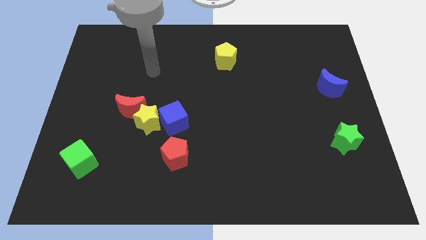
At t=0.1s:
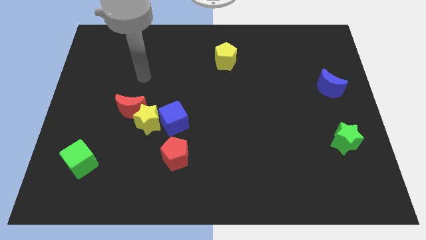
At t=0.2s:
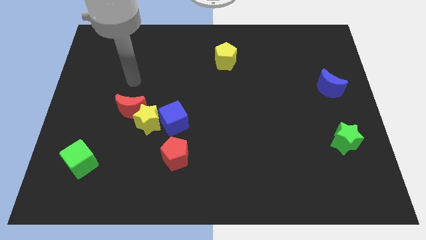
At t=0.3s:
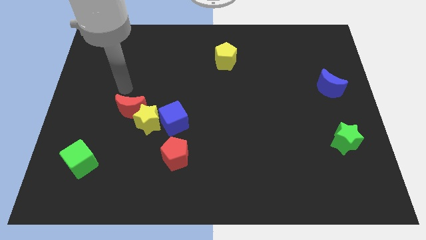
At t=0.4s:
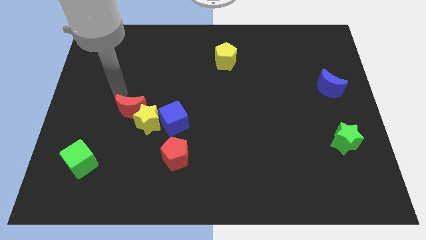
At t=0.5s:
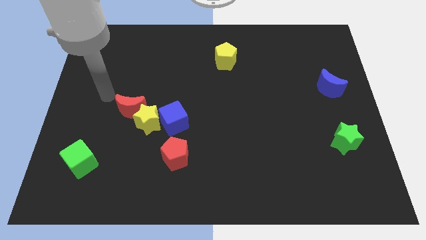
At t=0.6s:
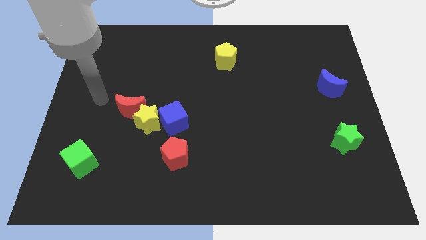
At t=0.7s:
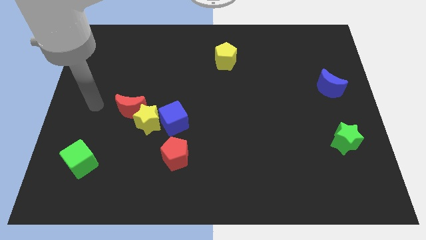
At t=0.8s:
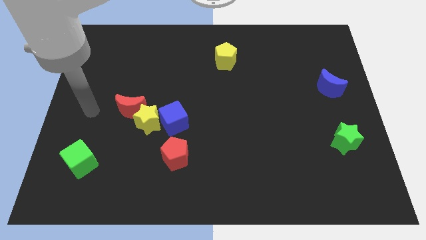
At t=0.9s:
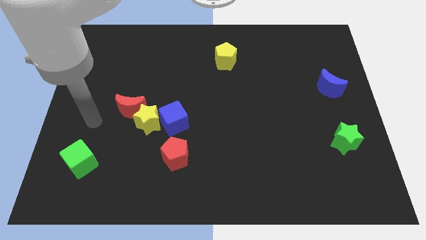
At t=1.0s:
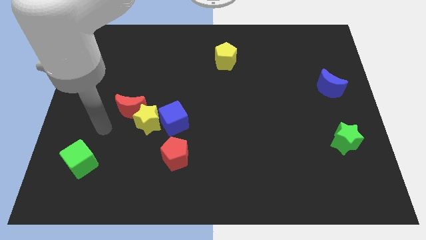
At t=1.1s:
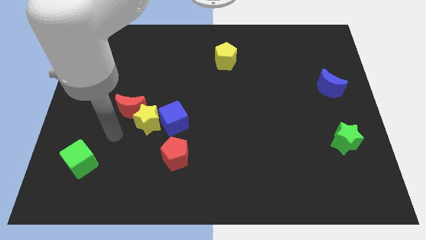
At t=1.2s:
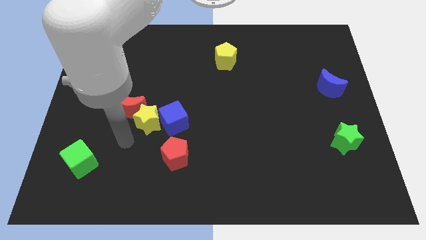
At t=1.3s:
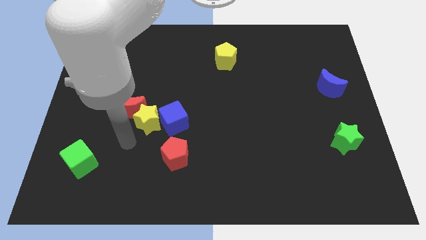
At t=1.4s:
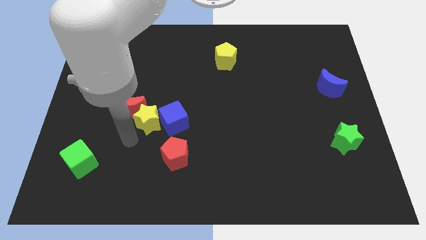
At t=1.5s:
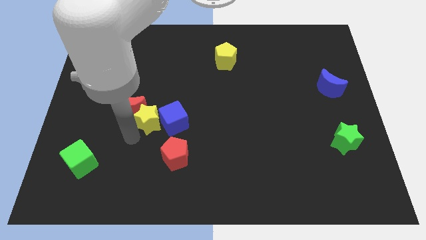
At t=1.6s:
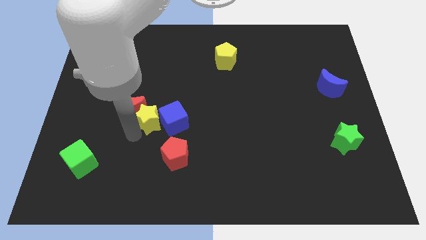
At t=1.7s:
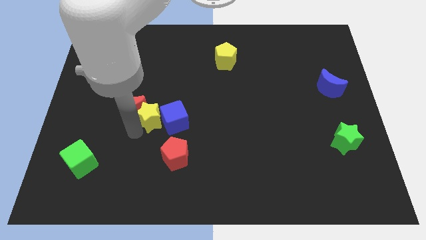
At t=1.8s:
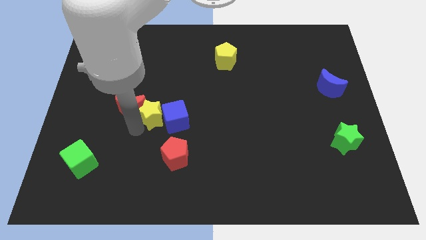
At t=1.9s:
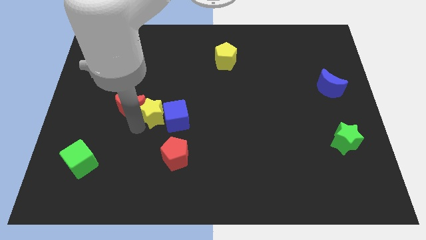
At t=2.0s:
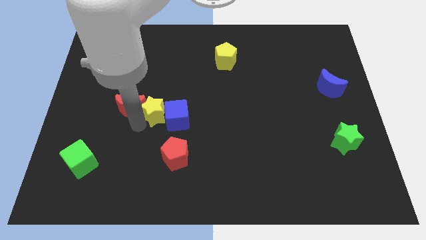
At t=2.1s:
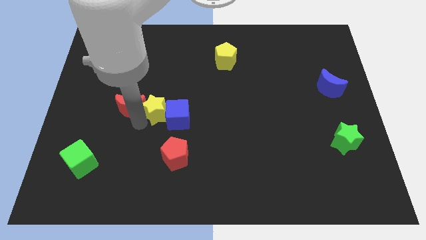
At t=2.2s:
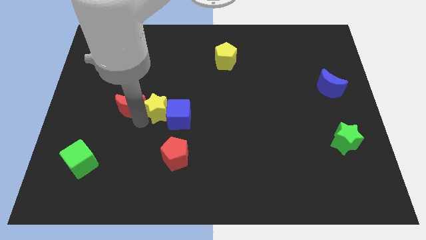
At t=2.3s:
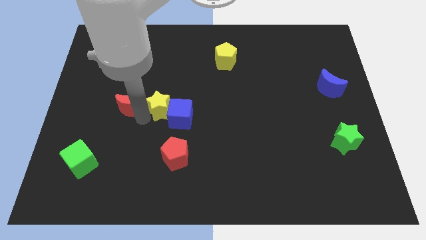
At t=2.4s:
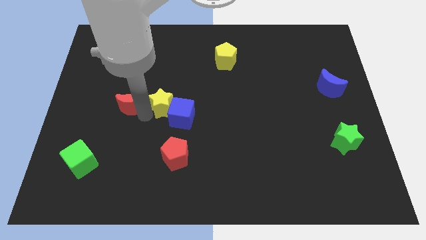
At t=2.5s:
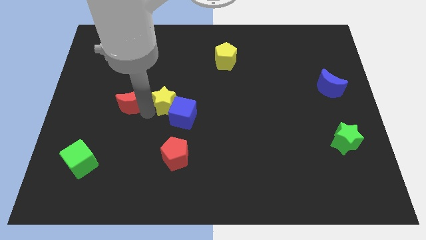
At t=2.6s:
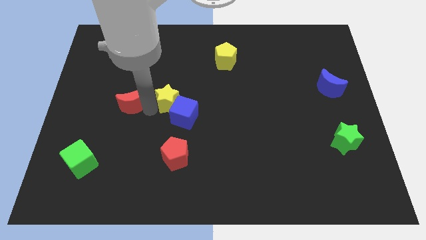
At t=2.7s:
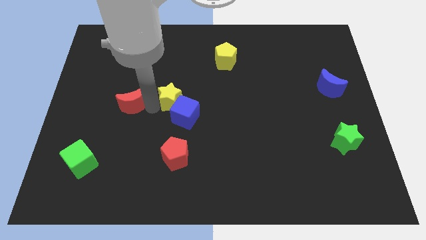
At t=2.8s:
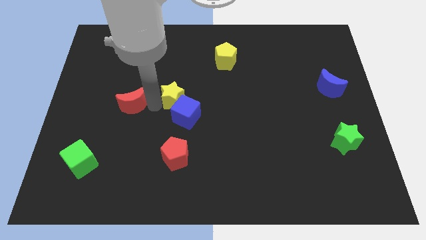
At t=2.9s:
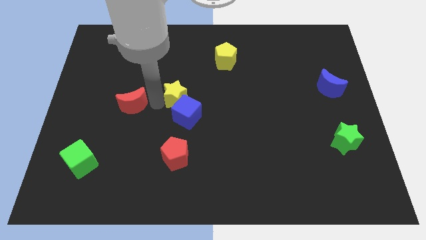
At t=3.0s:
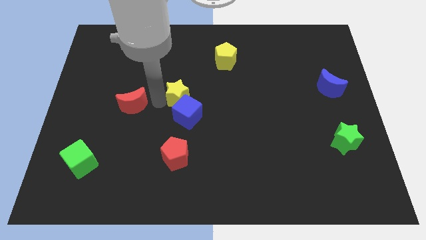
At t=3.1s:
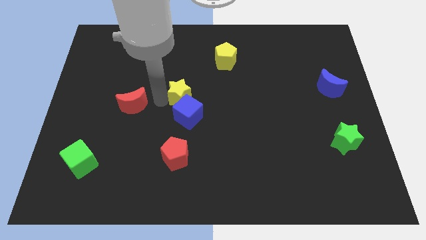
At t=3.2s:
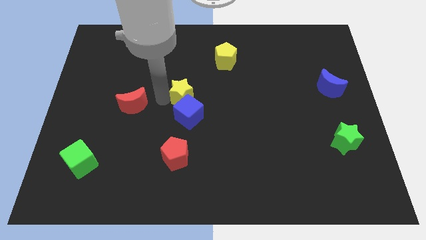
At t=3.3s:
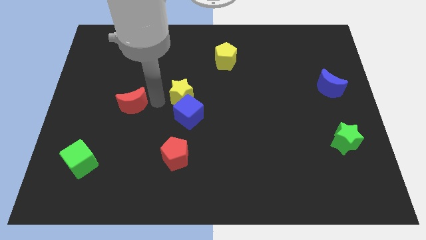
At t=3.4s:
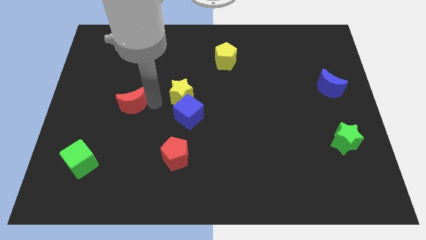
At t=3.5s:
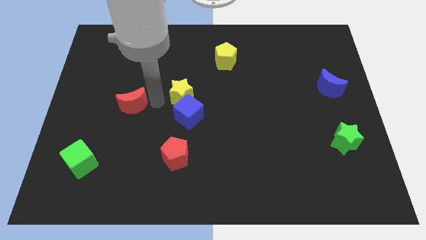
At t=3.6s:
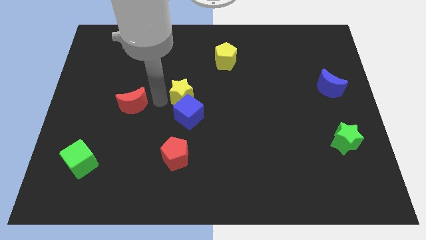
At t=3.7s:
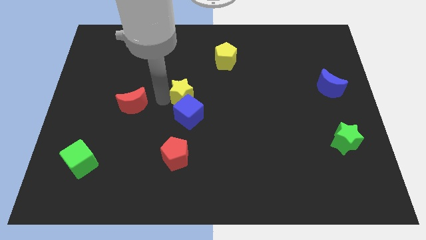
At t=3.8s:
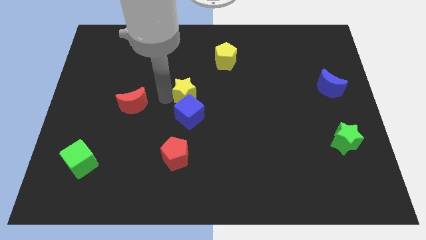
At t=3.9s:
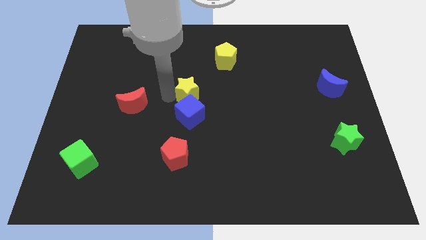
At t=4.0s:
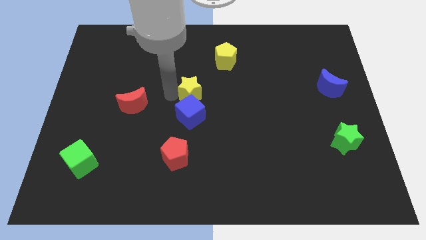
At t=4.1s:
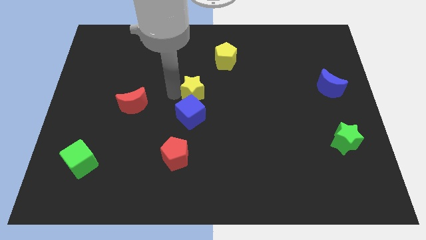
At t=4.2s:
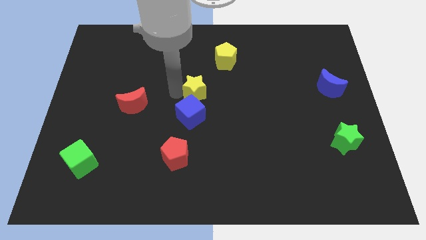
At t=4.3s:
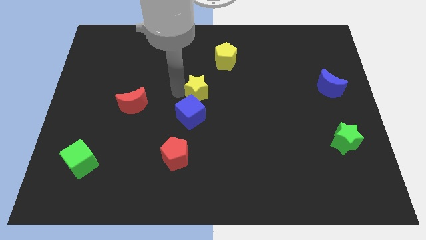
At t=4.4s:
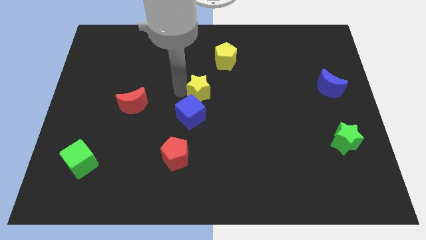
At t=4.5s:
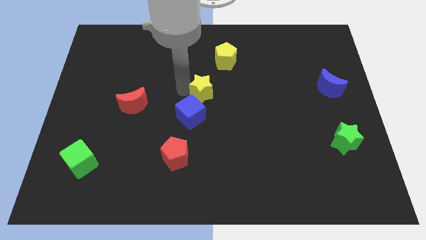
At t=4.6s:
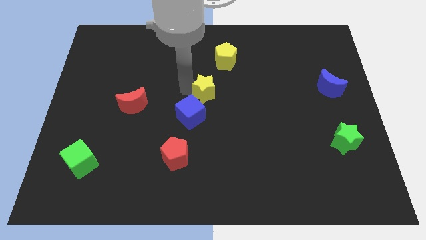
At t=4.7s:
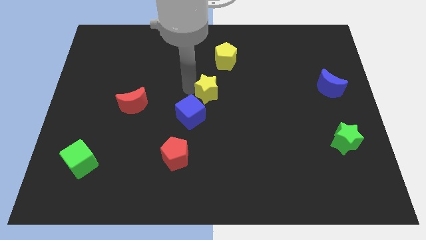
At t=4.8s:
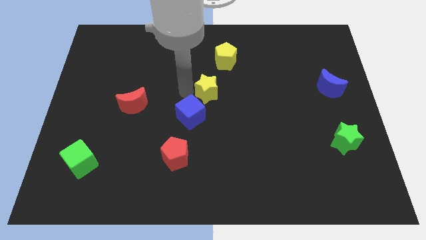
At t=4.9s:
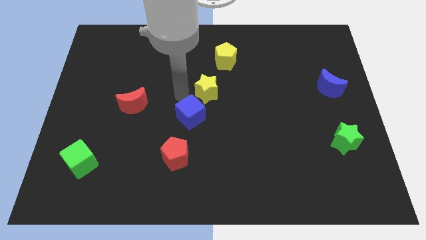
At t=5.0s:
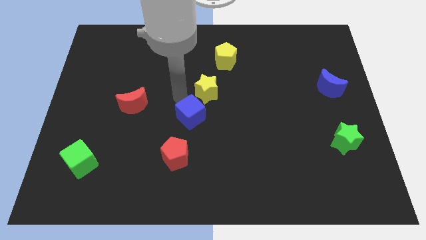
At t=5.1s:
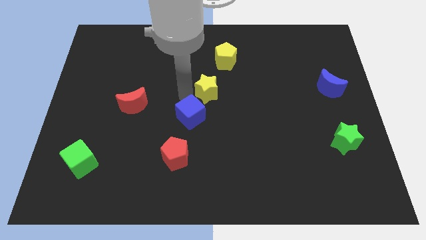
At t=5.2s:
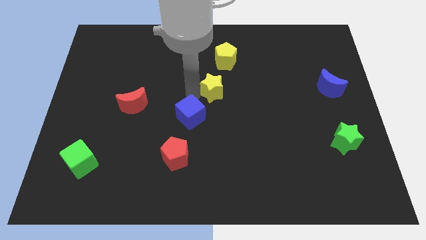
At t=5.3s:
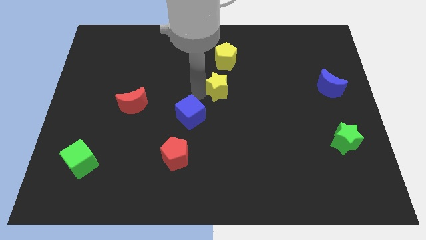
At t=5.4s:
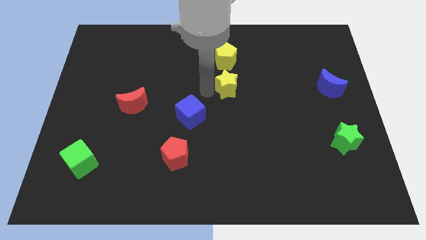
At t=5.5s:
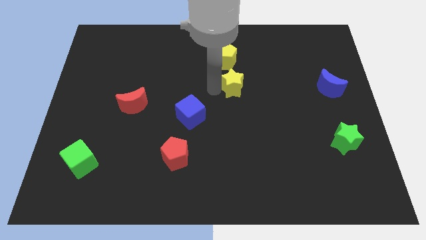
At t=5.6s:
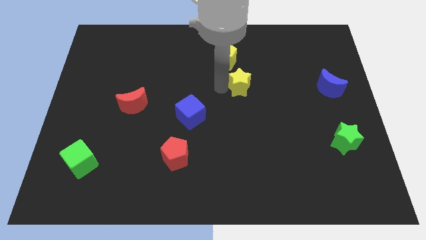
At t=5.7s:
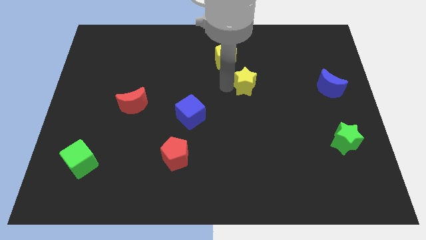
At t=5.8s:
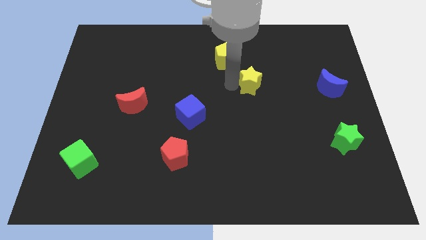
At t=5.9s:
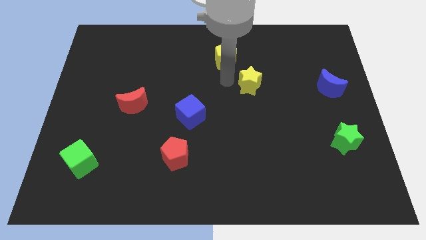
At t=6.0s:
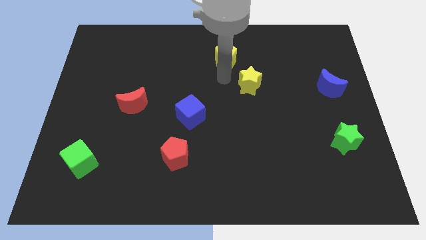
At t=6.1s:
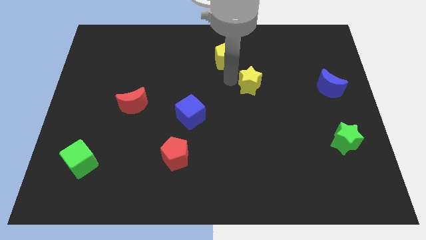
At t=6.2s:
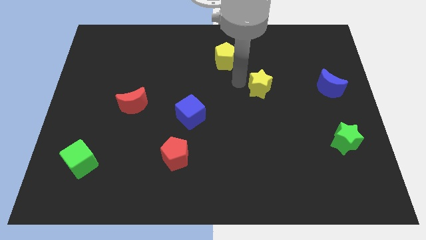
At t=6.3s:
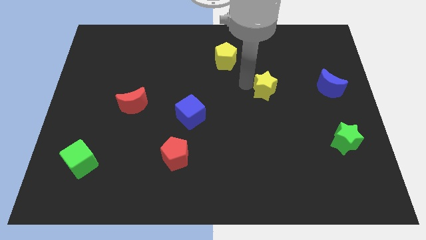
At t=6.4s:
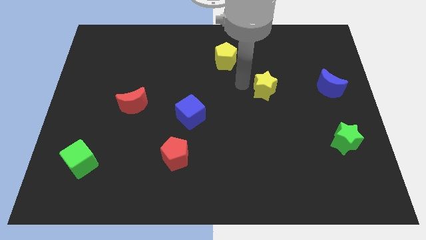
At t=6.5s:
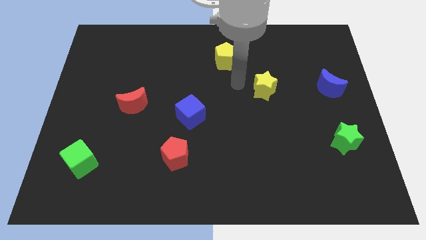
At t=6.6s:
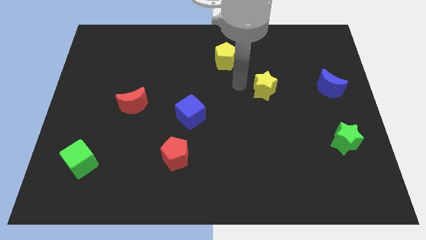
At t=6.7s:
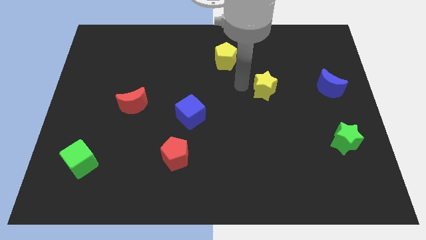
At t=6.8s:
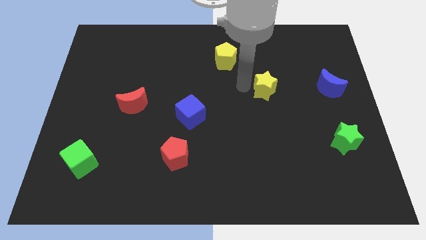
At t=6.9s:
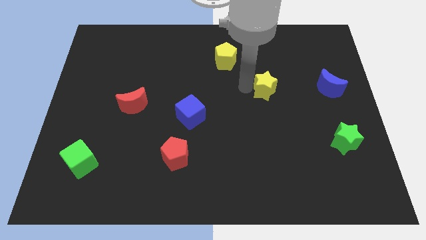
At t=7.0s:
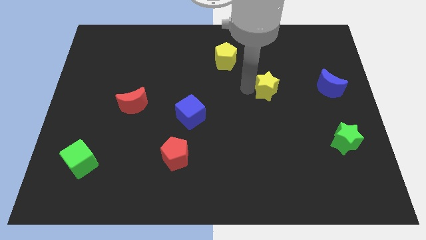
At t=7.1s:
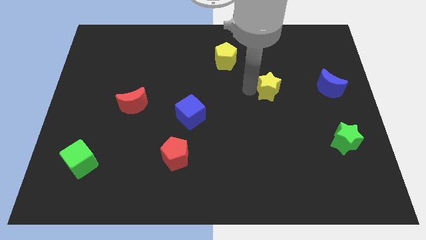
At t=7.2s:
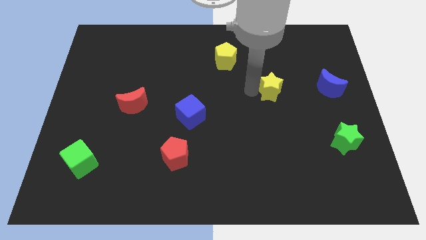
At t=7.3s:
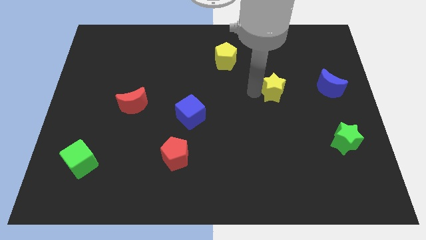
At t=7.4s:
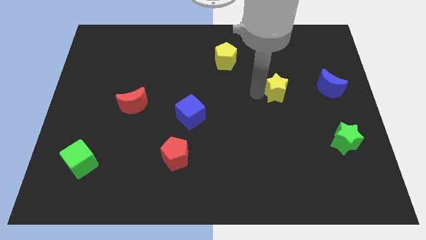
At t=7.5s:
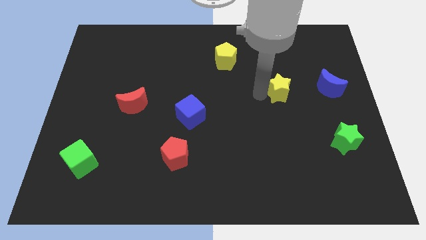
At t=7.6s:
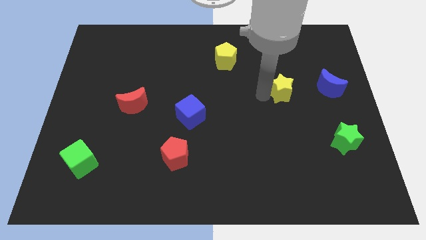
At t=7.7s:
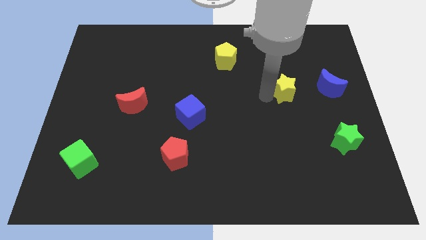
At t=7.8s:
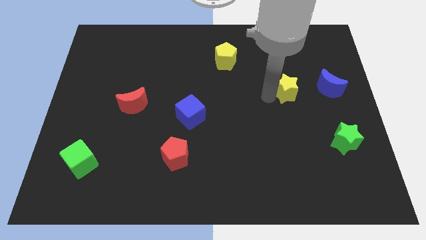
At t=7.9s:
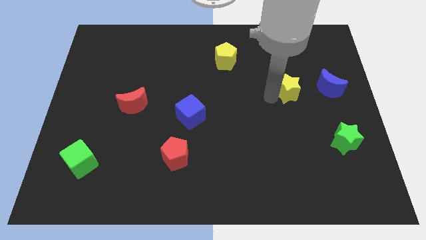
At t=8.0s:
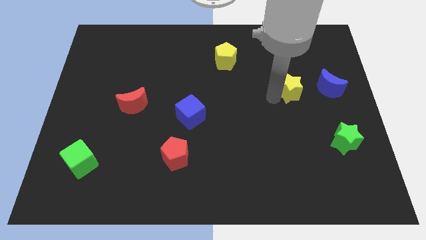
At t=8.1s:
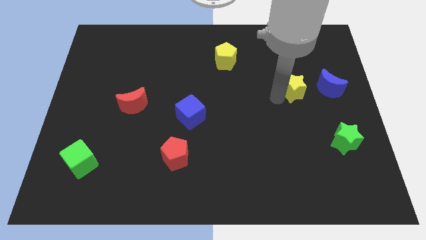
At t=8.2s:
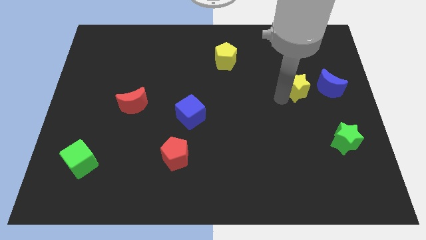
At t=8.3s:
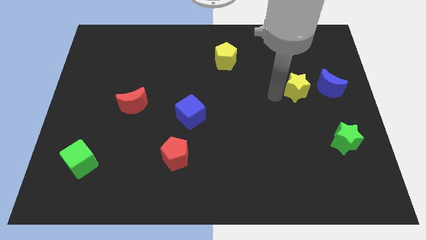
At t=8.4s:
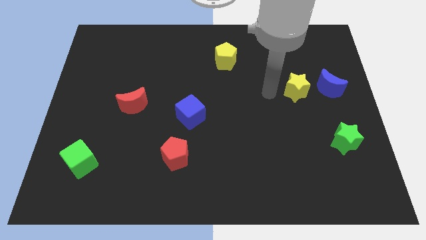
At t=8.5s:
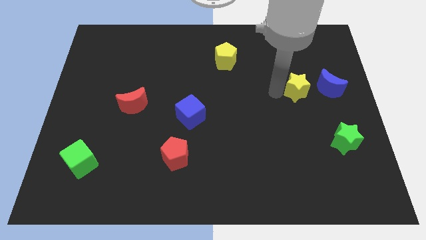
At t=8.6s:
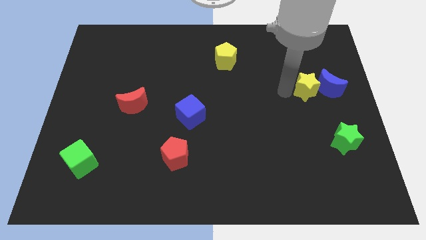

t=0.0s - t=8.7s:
put the yellow star towards the blue moon
